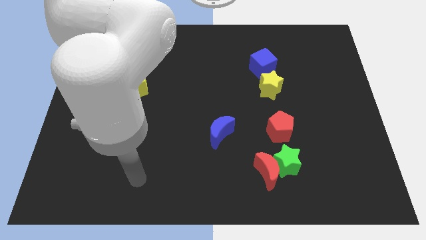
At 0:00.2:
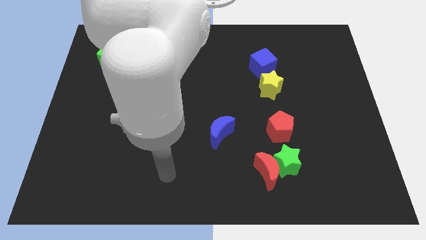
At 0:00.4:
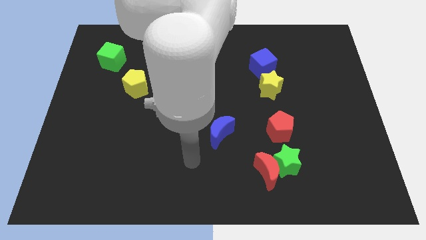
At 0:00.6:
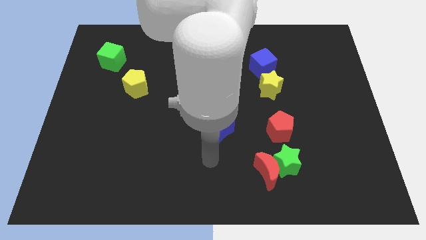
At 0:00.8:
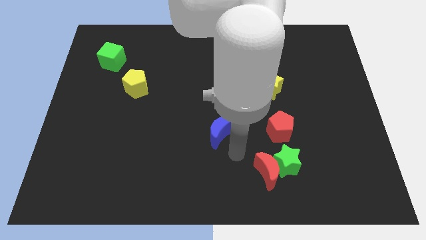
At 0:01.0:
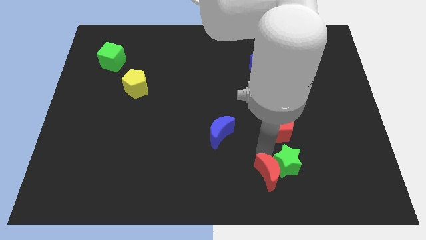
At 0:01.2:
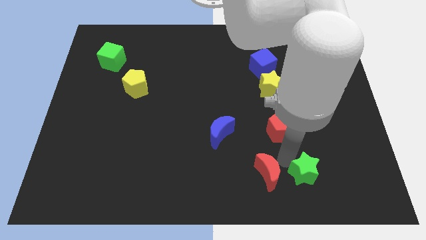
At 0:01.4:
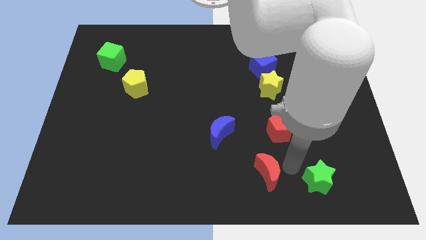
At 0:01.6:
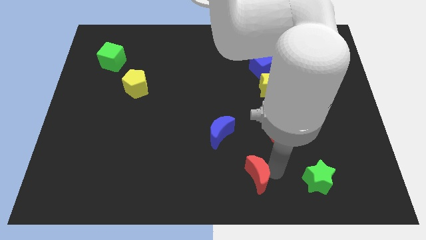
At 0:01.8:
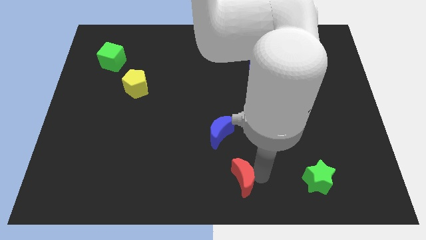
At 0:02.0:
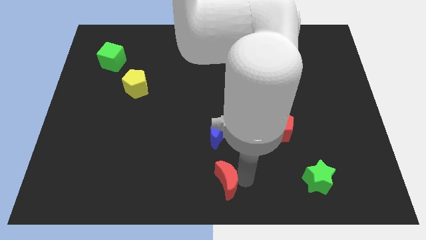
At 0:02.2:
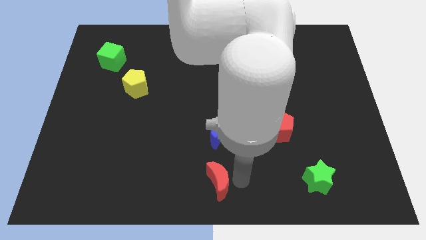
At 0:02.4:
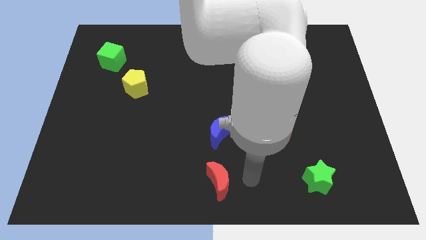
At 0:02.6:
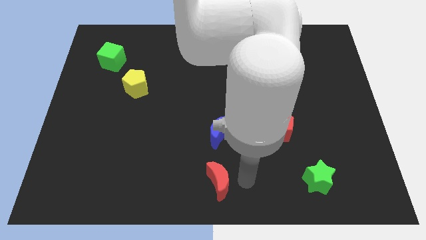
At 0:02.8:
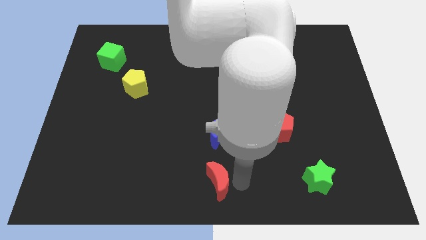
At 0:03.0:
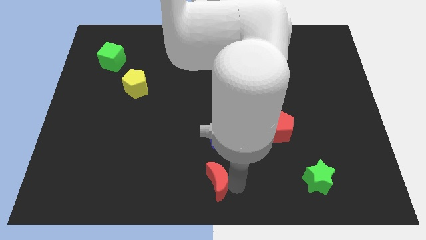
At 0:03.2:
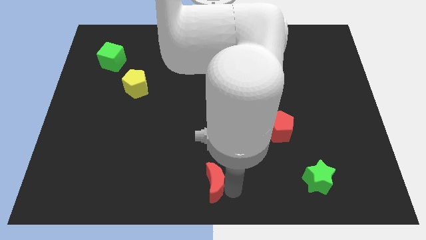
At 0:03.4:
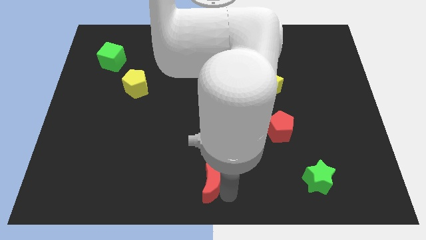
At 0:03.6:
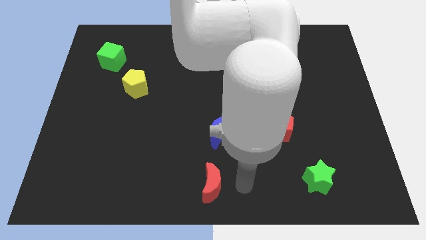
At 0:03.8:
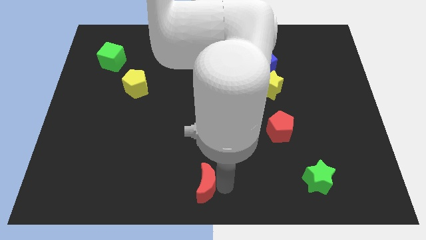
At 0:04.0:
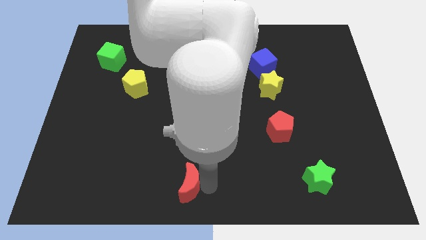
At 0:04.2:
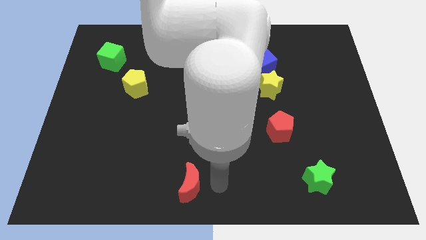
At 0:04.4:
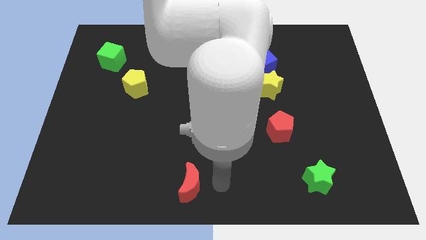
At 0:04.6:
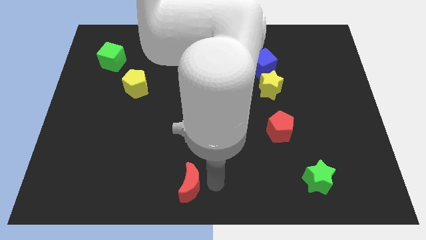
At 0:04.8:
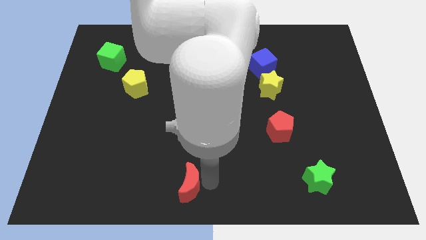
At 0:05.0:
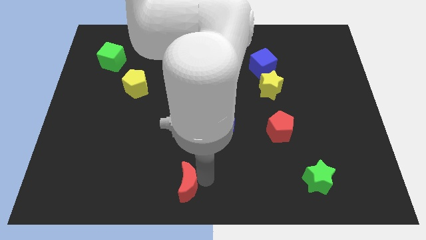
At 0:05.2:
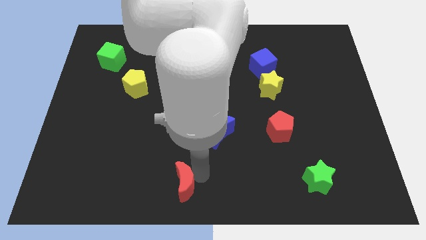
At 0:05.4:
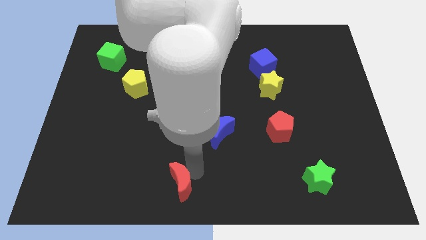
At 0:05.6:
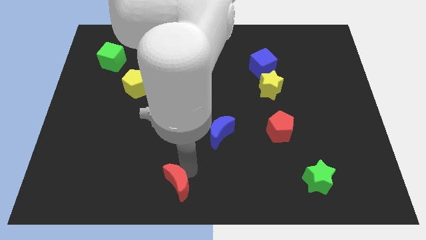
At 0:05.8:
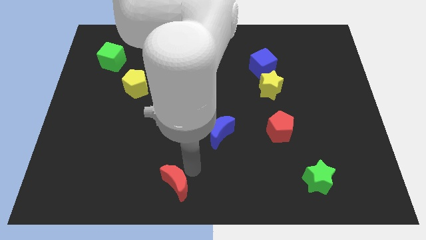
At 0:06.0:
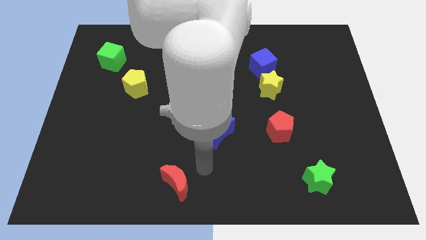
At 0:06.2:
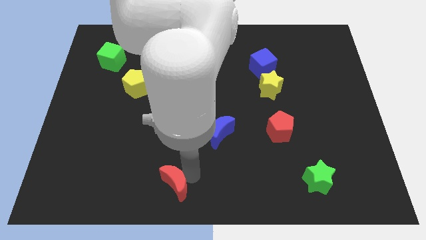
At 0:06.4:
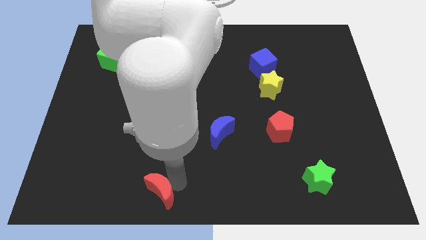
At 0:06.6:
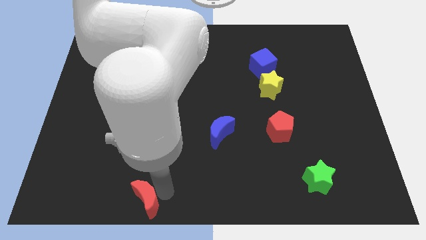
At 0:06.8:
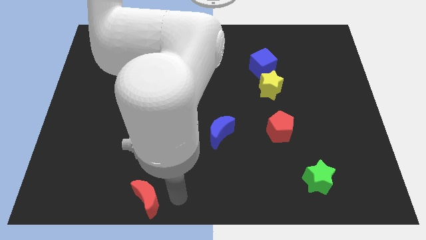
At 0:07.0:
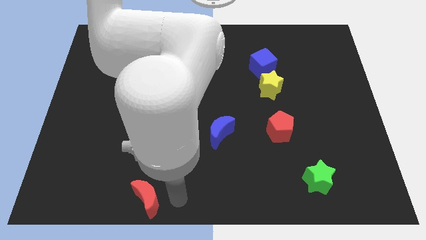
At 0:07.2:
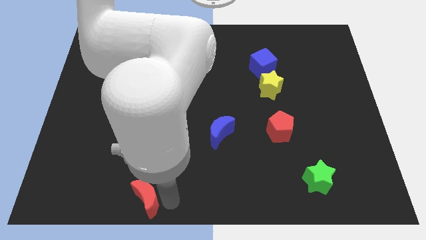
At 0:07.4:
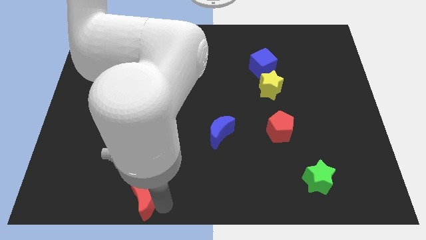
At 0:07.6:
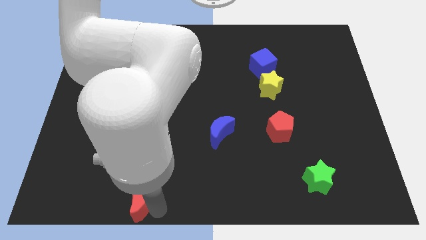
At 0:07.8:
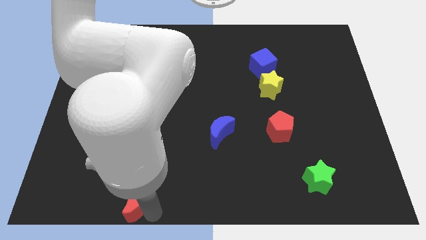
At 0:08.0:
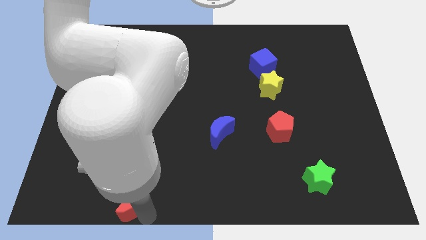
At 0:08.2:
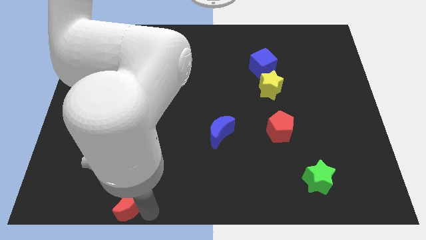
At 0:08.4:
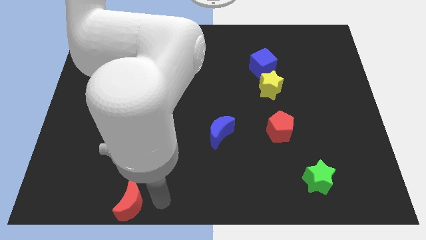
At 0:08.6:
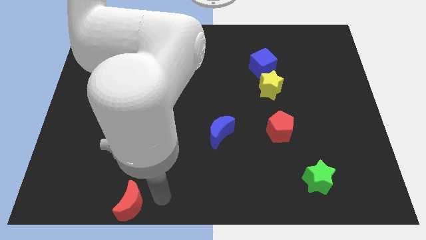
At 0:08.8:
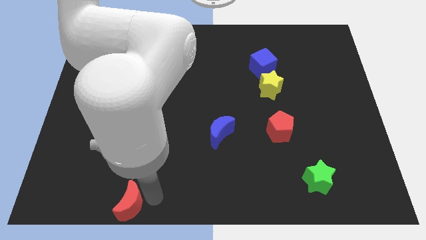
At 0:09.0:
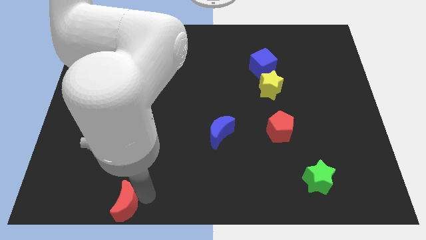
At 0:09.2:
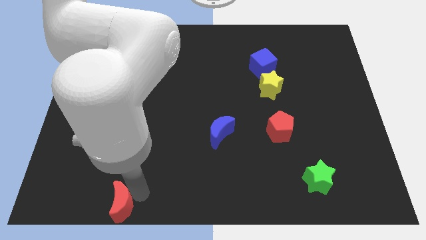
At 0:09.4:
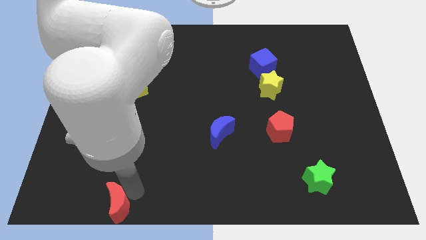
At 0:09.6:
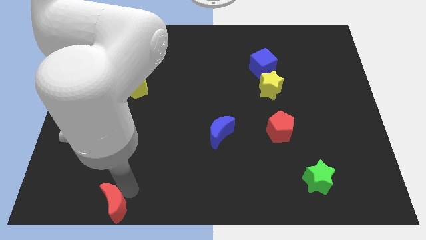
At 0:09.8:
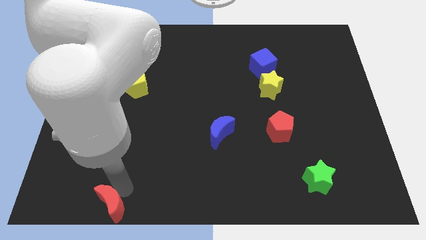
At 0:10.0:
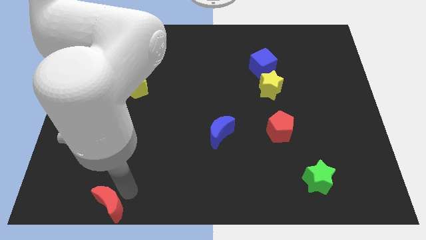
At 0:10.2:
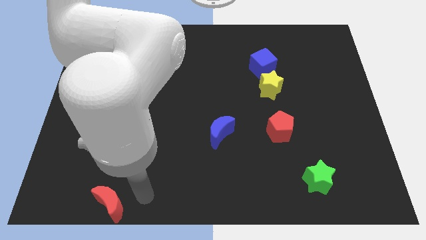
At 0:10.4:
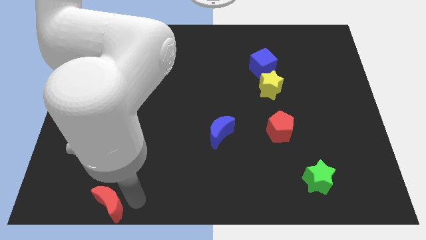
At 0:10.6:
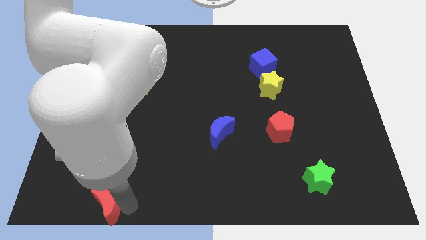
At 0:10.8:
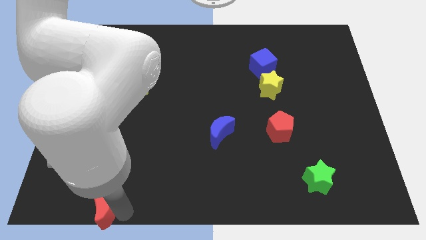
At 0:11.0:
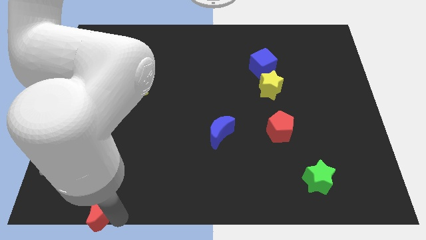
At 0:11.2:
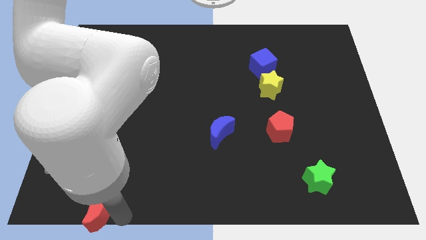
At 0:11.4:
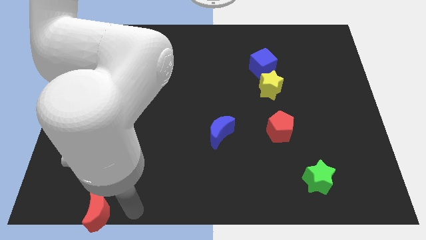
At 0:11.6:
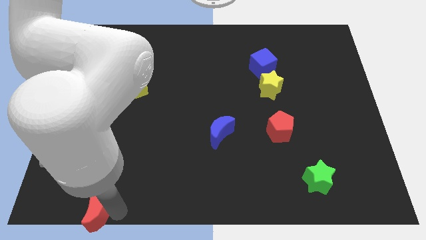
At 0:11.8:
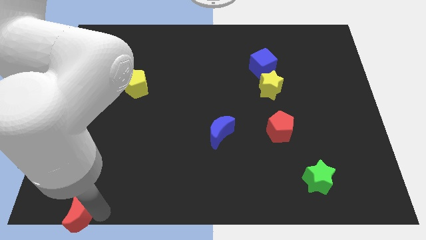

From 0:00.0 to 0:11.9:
push the red moon to the bottom left corner

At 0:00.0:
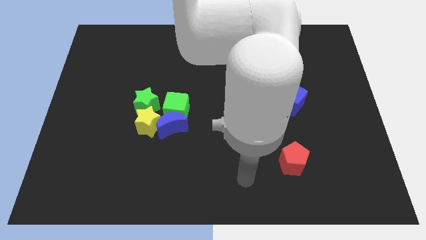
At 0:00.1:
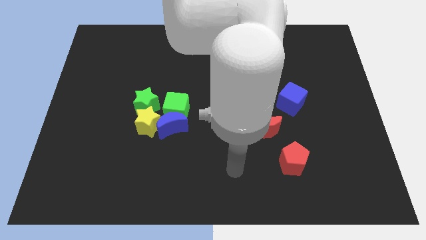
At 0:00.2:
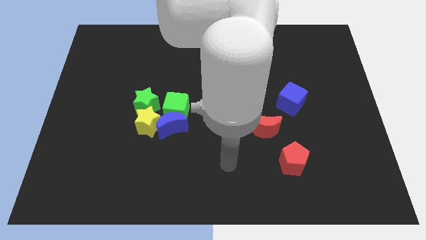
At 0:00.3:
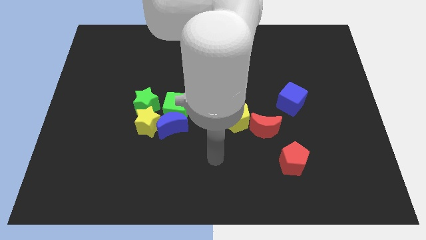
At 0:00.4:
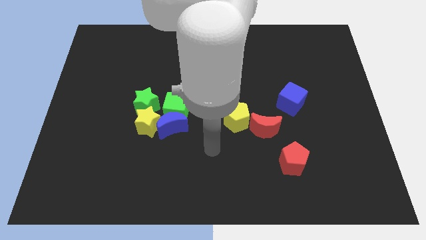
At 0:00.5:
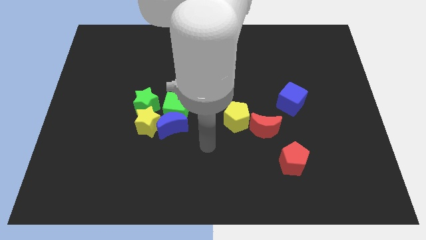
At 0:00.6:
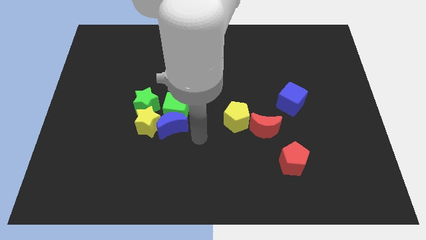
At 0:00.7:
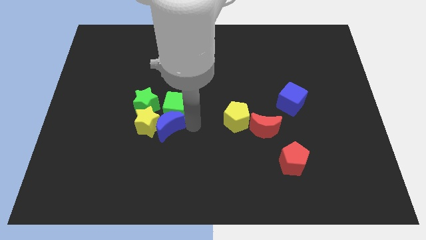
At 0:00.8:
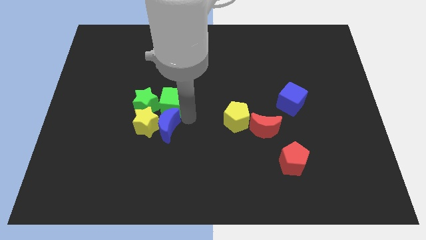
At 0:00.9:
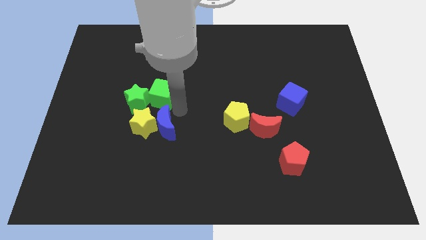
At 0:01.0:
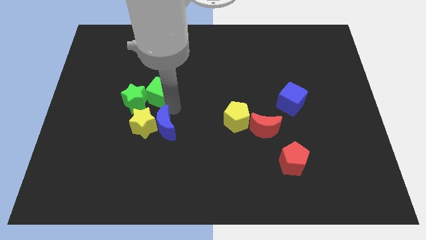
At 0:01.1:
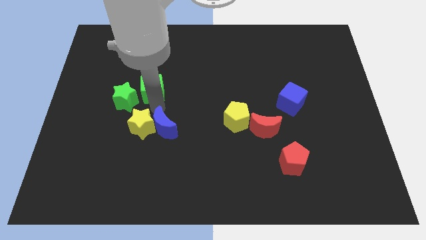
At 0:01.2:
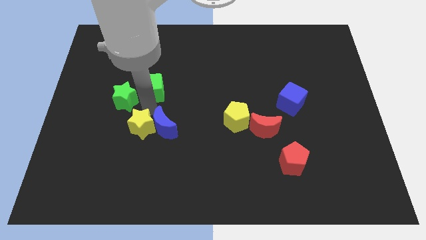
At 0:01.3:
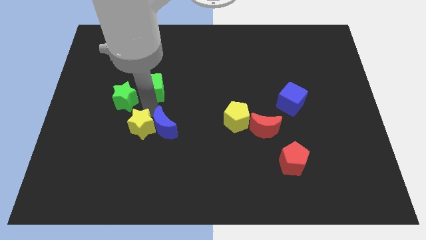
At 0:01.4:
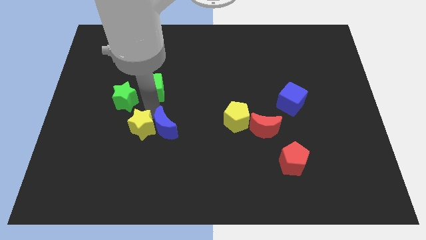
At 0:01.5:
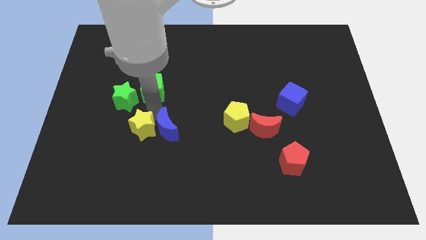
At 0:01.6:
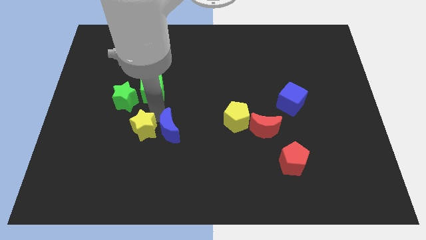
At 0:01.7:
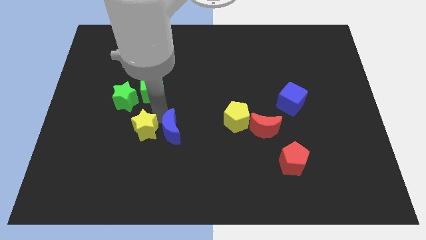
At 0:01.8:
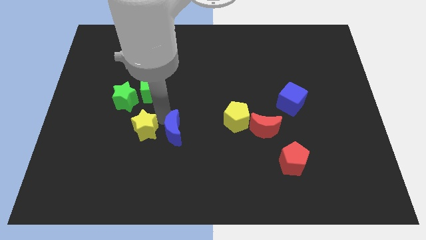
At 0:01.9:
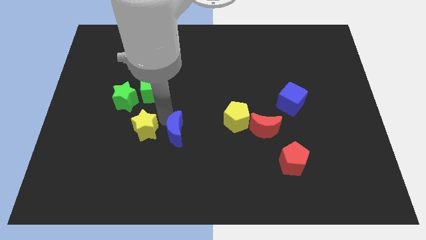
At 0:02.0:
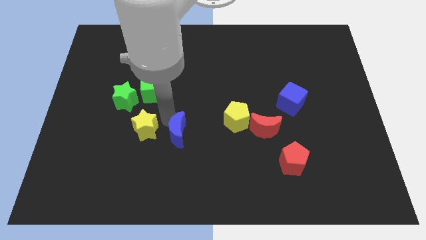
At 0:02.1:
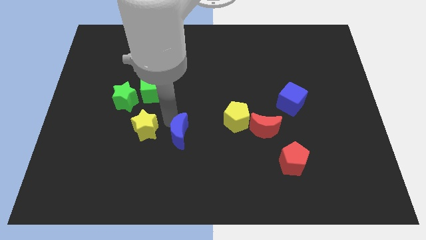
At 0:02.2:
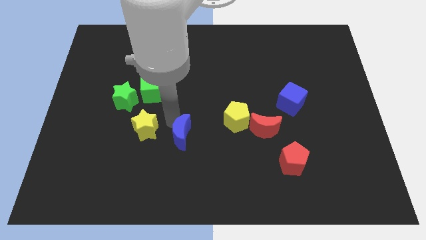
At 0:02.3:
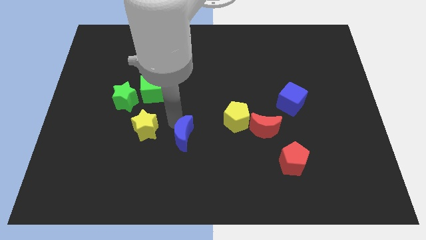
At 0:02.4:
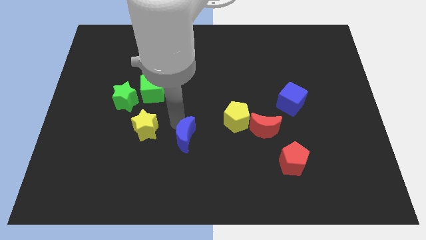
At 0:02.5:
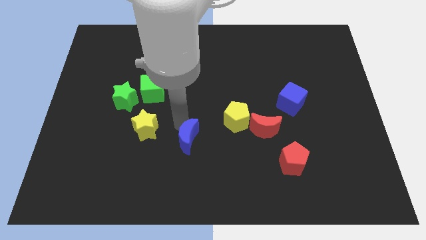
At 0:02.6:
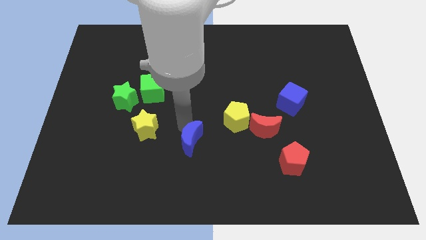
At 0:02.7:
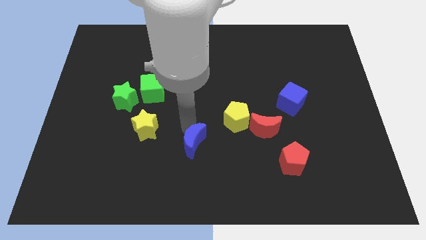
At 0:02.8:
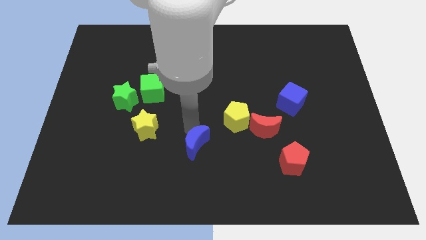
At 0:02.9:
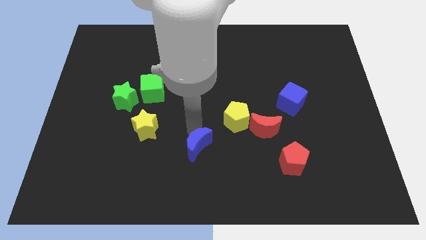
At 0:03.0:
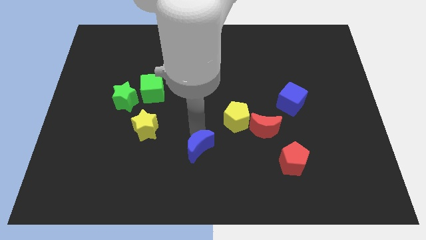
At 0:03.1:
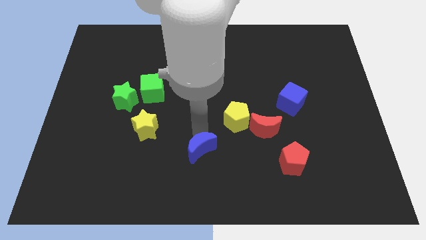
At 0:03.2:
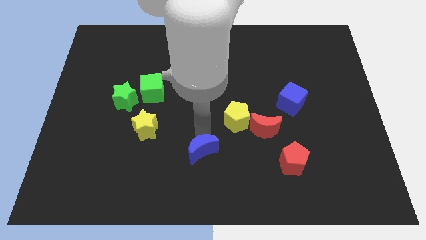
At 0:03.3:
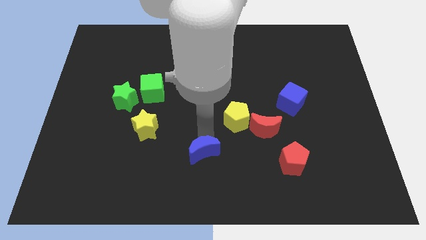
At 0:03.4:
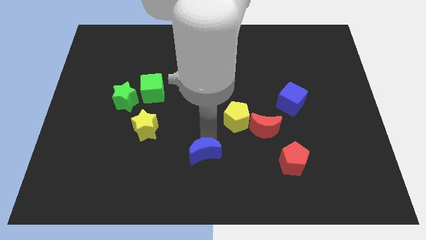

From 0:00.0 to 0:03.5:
move the blue moon to the bottom side
